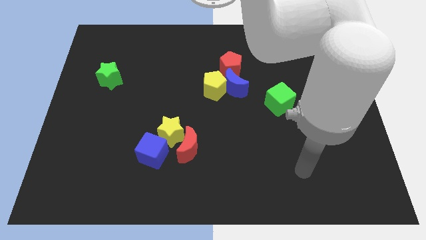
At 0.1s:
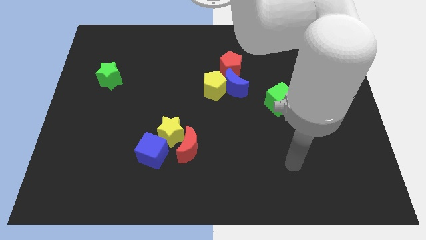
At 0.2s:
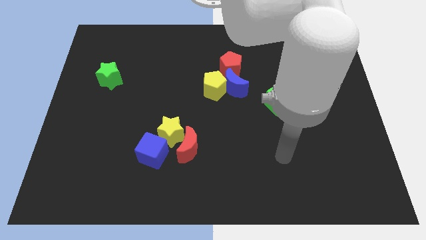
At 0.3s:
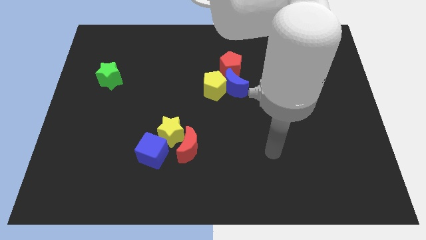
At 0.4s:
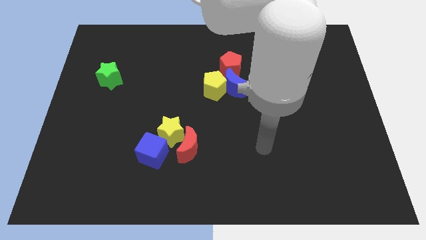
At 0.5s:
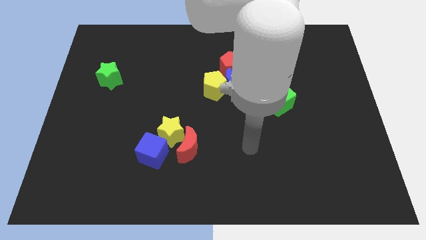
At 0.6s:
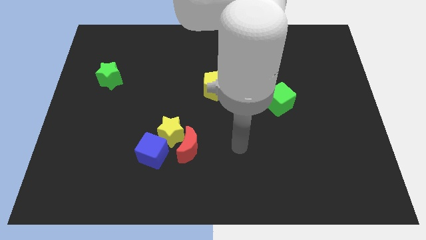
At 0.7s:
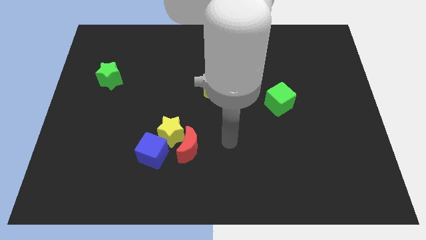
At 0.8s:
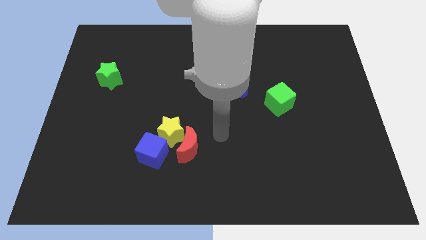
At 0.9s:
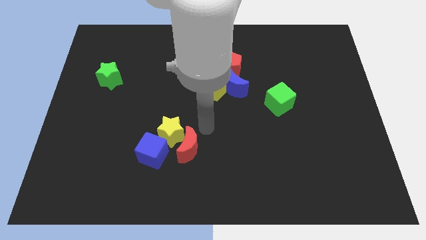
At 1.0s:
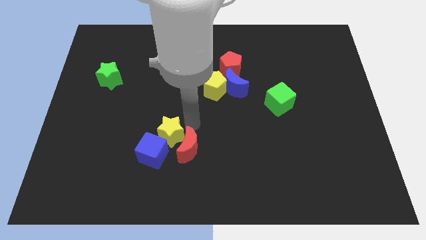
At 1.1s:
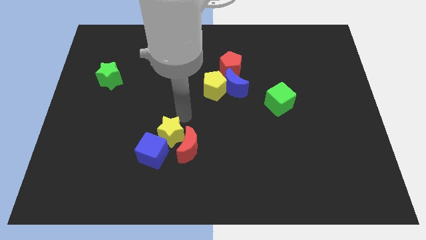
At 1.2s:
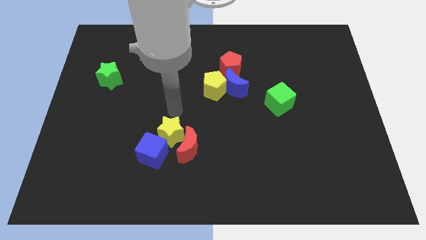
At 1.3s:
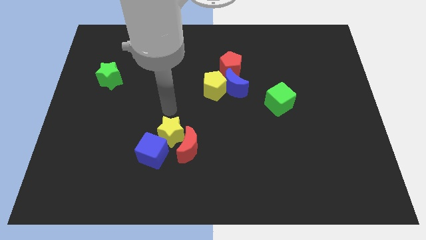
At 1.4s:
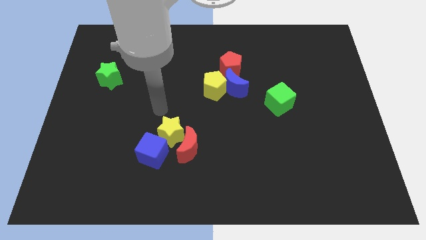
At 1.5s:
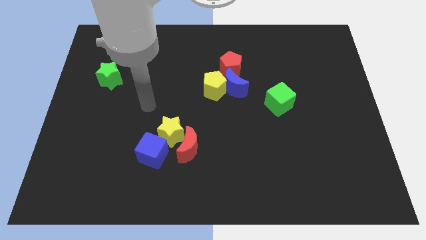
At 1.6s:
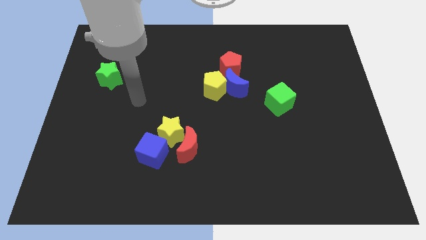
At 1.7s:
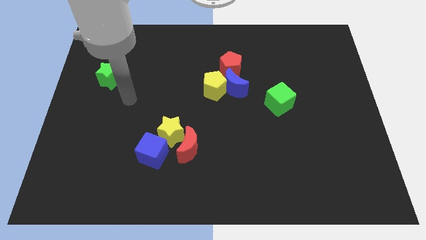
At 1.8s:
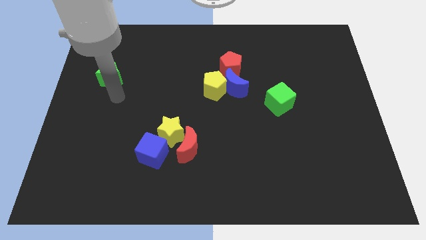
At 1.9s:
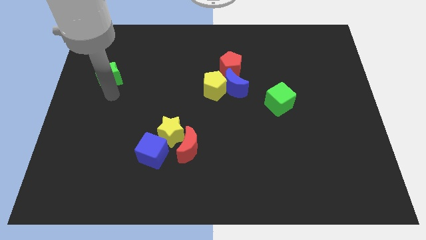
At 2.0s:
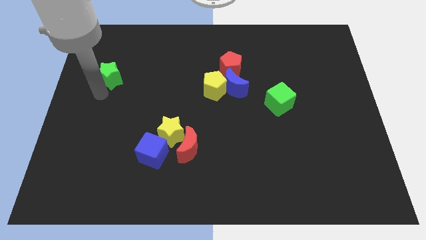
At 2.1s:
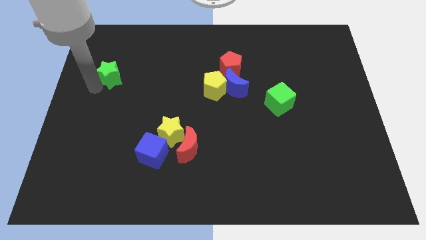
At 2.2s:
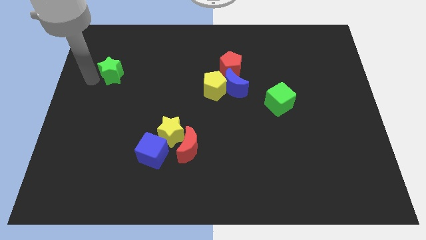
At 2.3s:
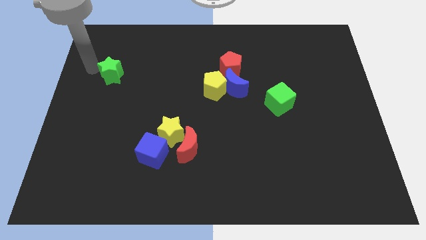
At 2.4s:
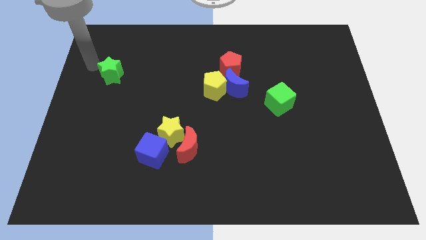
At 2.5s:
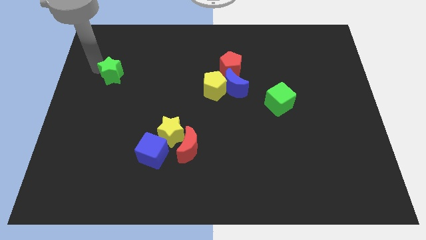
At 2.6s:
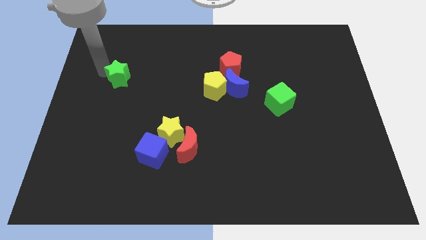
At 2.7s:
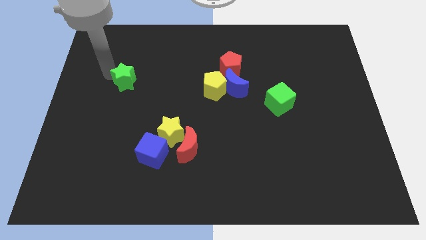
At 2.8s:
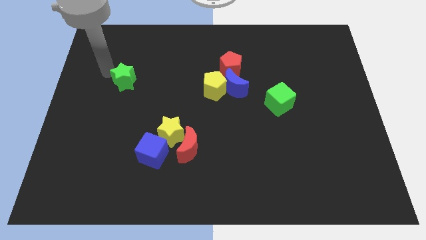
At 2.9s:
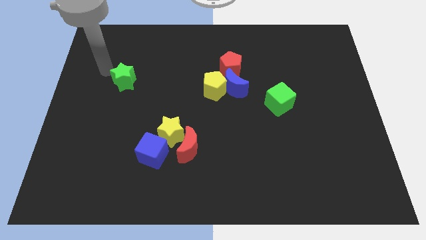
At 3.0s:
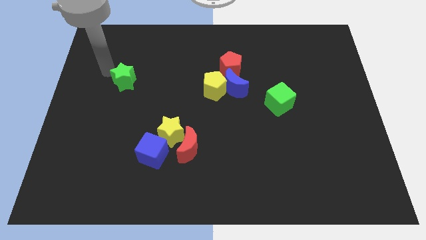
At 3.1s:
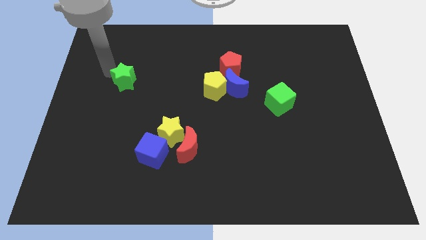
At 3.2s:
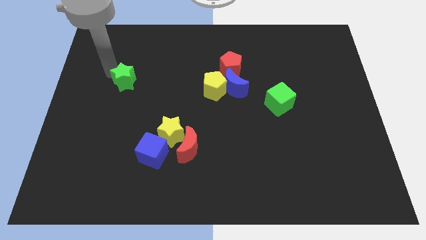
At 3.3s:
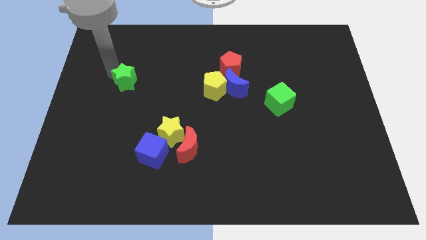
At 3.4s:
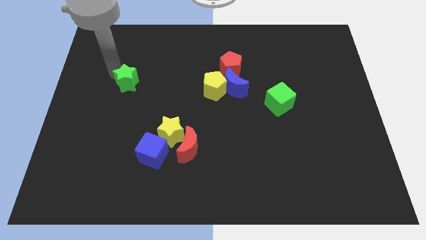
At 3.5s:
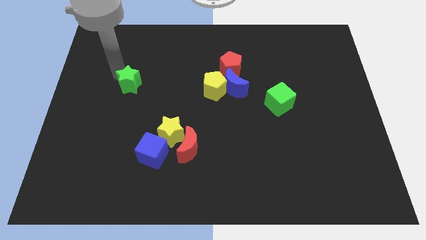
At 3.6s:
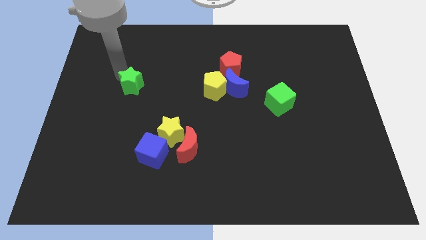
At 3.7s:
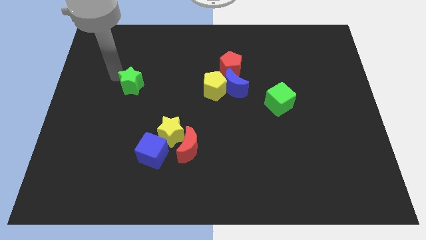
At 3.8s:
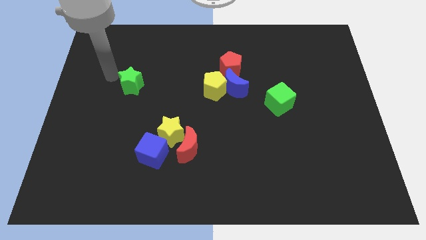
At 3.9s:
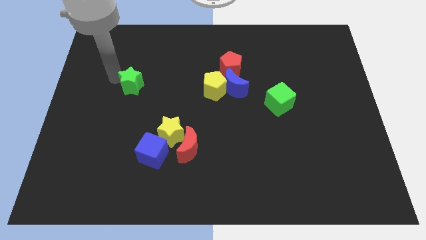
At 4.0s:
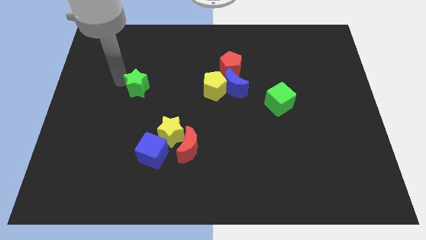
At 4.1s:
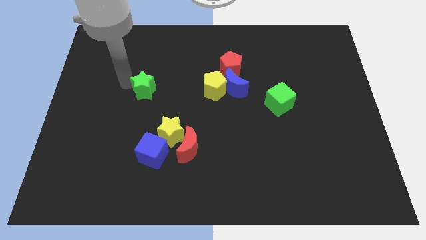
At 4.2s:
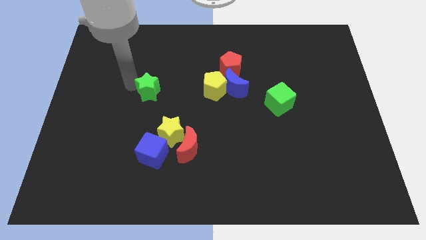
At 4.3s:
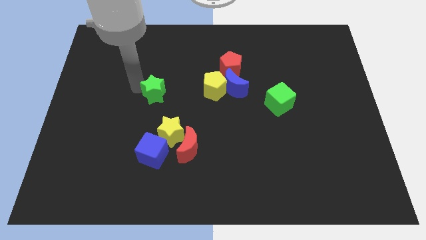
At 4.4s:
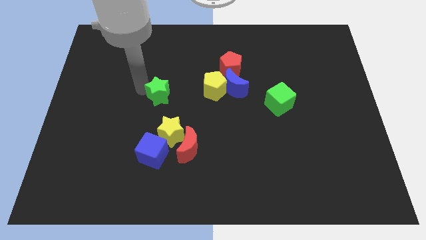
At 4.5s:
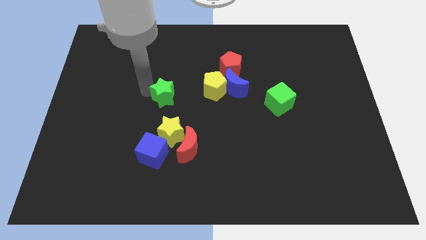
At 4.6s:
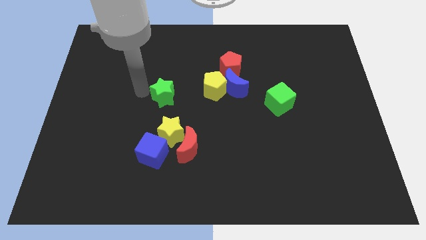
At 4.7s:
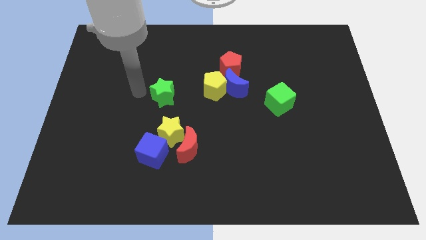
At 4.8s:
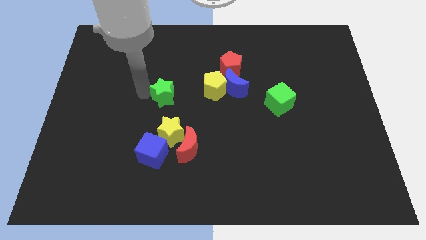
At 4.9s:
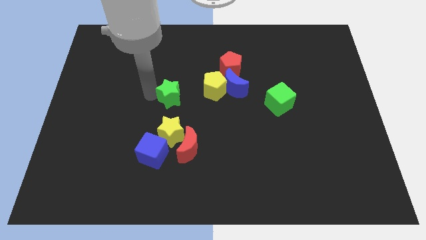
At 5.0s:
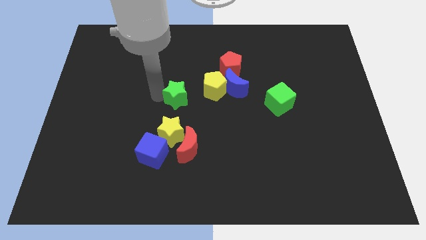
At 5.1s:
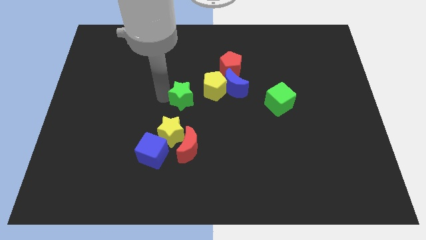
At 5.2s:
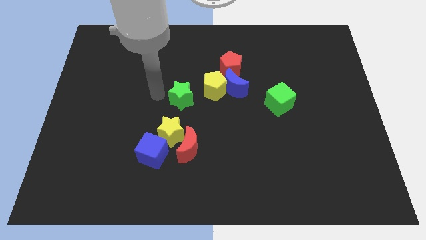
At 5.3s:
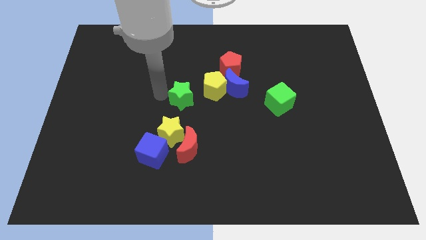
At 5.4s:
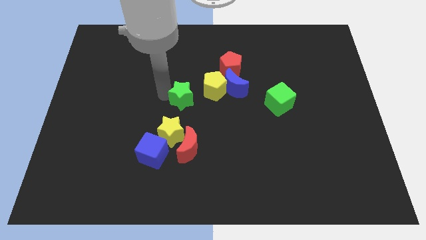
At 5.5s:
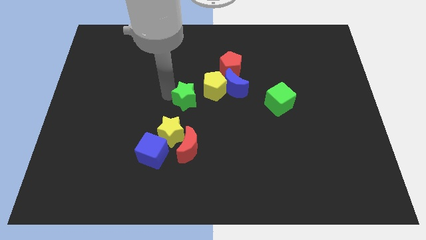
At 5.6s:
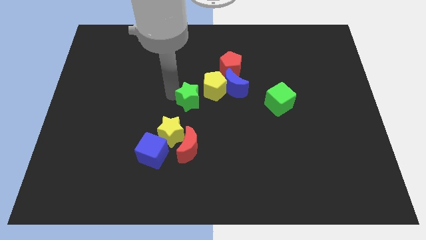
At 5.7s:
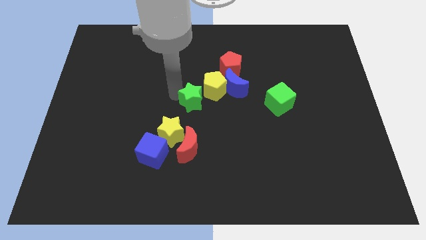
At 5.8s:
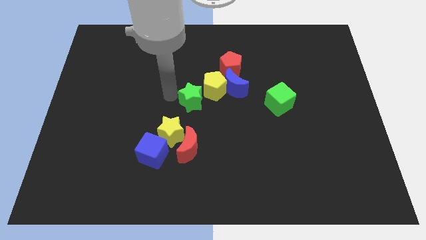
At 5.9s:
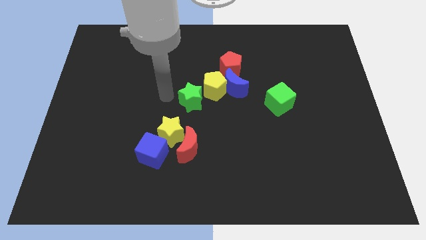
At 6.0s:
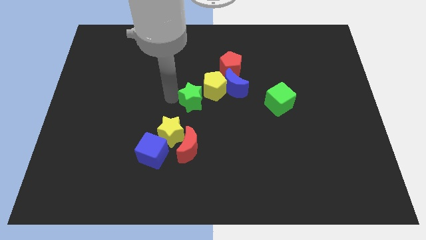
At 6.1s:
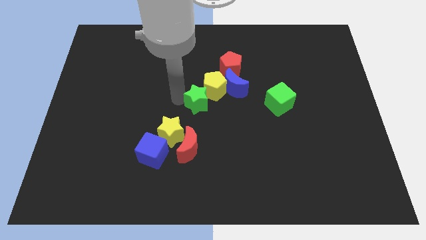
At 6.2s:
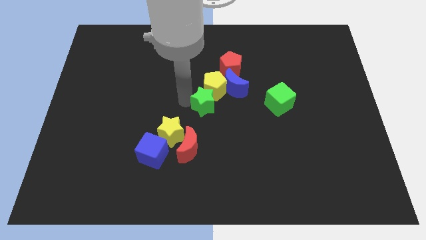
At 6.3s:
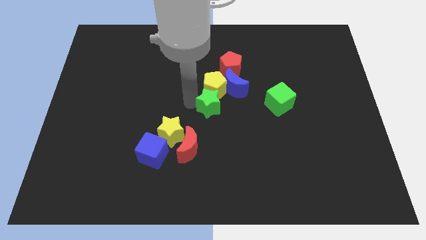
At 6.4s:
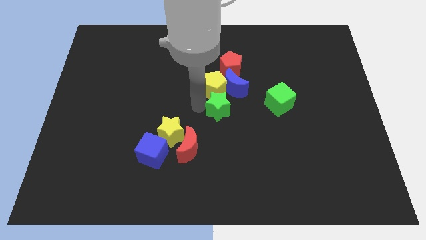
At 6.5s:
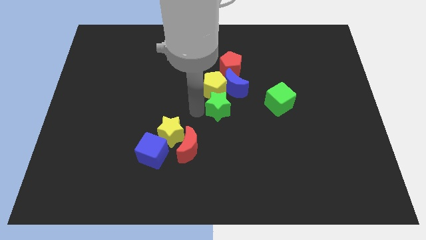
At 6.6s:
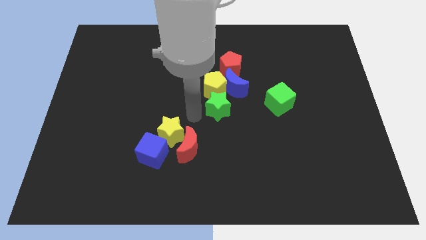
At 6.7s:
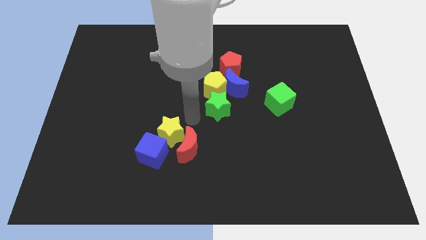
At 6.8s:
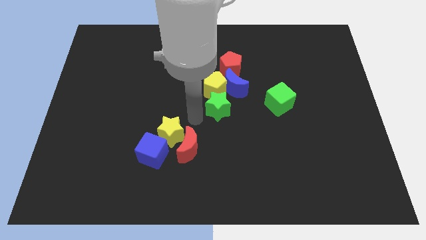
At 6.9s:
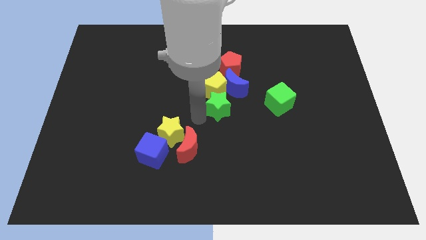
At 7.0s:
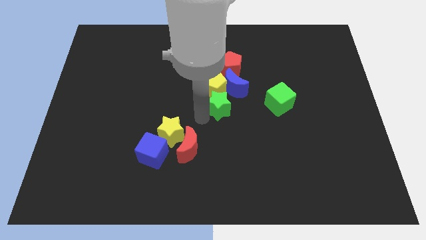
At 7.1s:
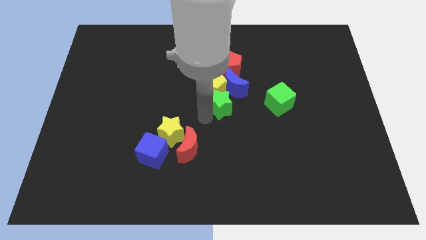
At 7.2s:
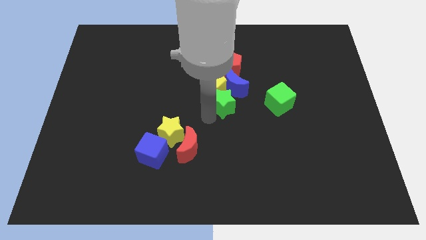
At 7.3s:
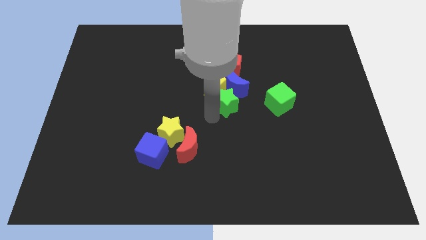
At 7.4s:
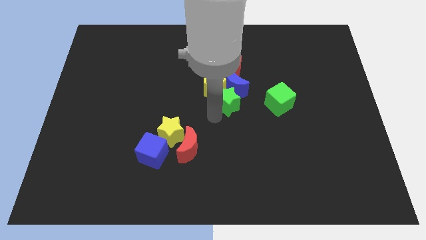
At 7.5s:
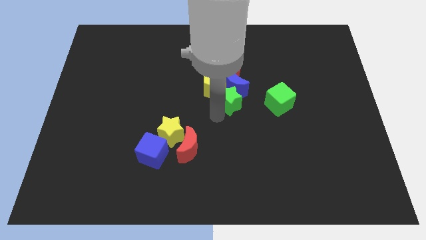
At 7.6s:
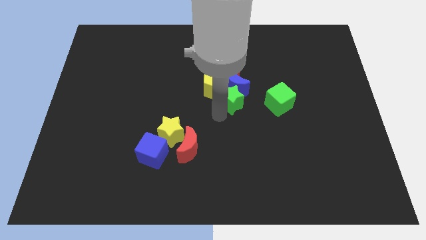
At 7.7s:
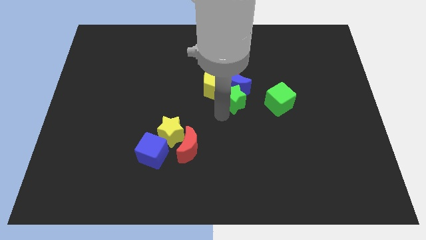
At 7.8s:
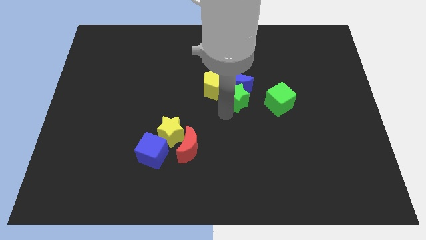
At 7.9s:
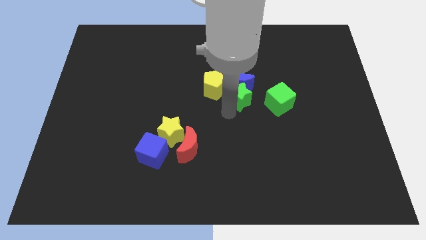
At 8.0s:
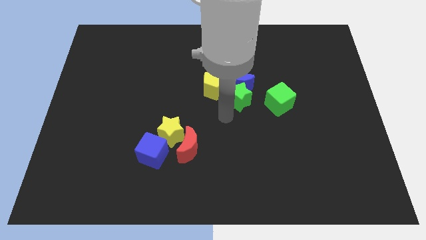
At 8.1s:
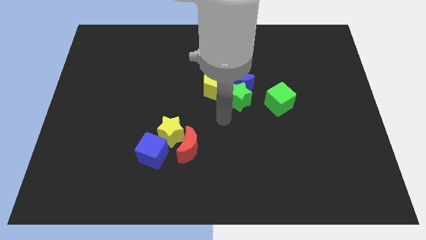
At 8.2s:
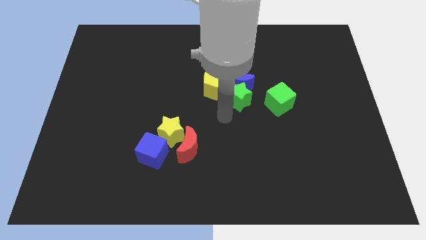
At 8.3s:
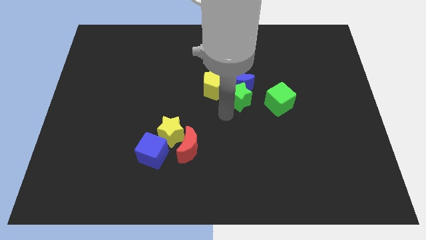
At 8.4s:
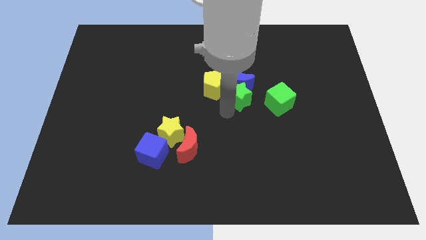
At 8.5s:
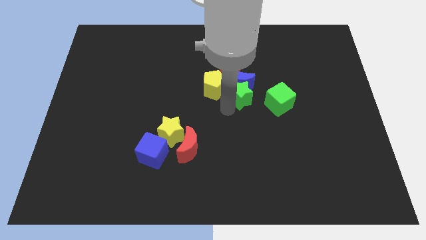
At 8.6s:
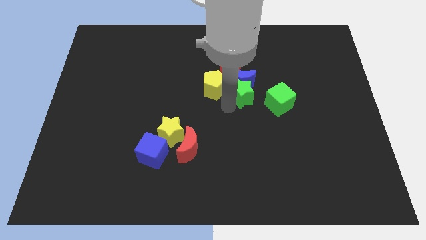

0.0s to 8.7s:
push the green star to the bottom right side of the red pentagon
